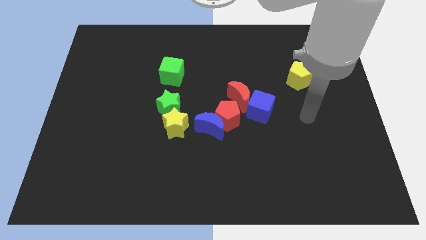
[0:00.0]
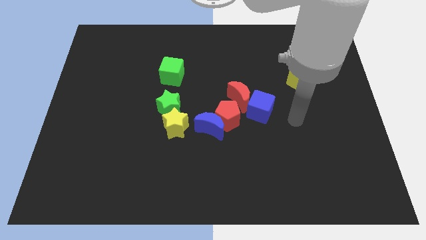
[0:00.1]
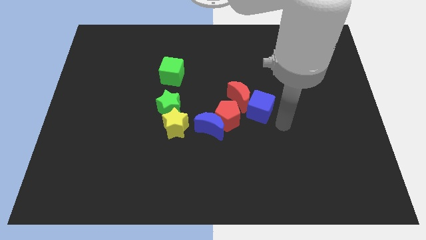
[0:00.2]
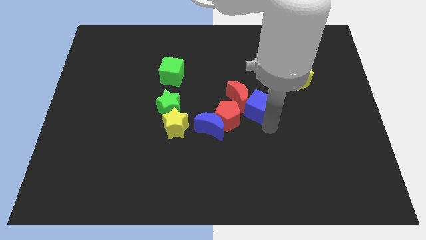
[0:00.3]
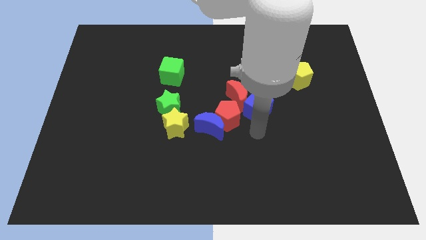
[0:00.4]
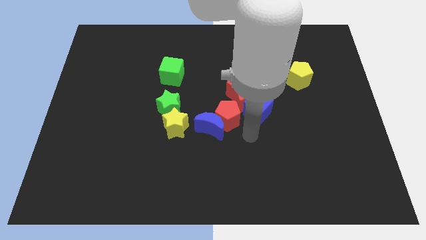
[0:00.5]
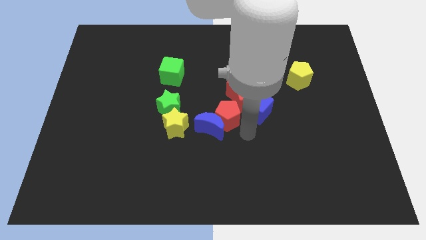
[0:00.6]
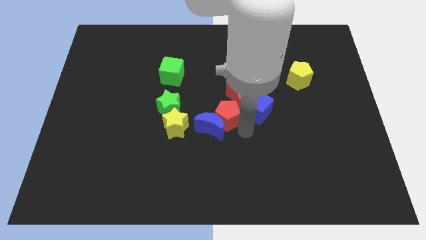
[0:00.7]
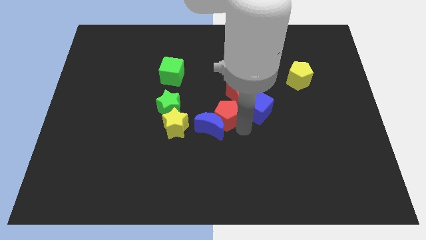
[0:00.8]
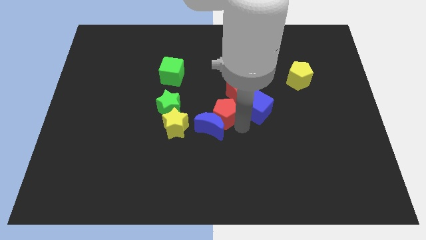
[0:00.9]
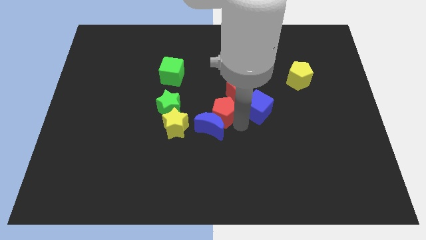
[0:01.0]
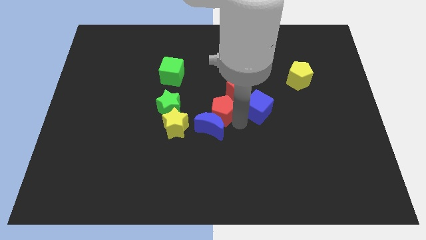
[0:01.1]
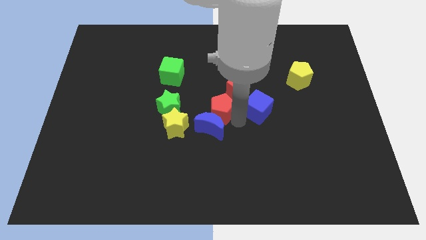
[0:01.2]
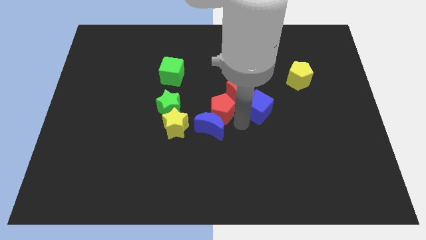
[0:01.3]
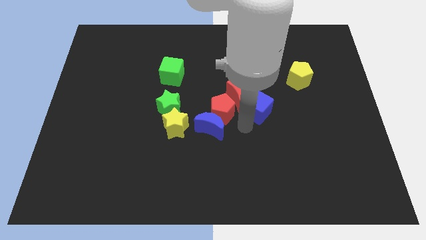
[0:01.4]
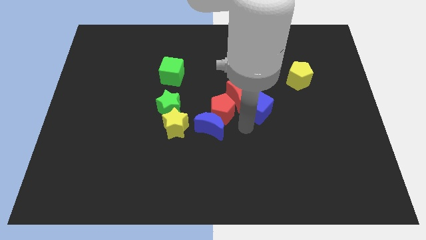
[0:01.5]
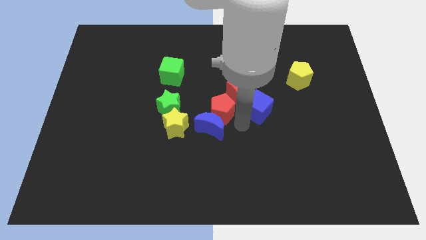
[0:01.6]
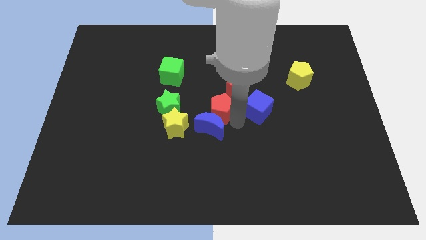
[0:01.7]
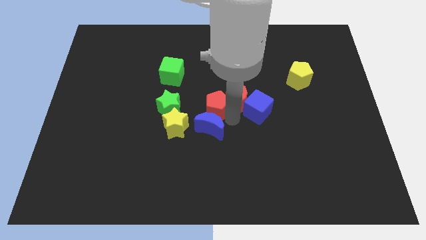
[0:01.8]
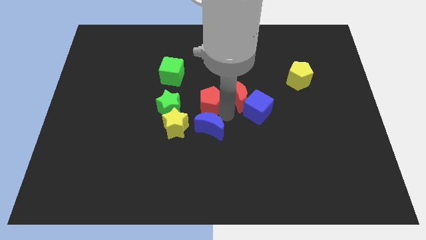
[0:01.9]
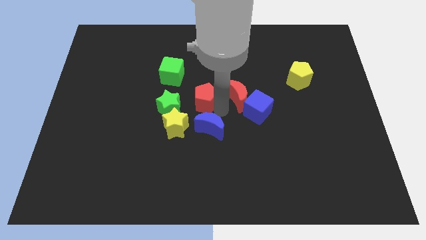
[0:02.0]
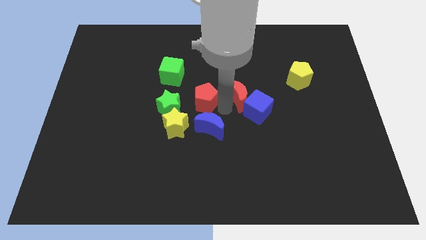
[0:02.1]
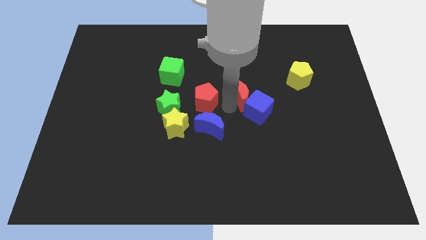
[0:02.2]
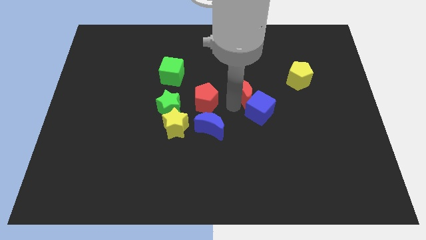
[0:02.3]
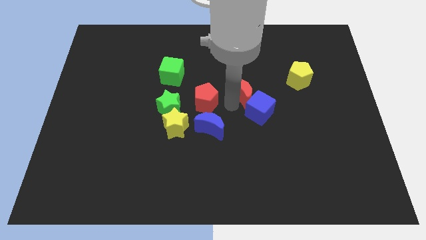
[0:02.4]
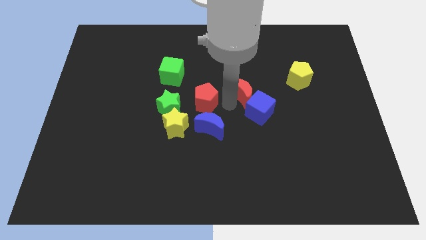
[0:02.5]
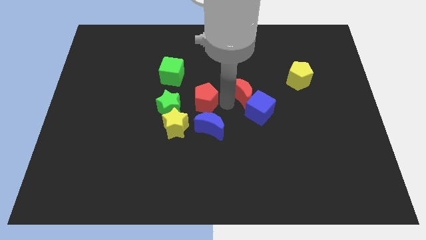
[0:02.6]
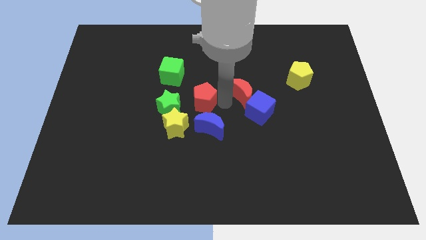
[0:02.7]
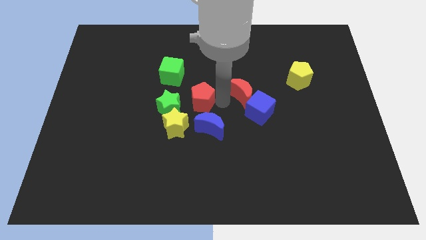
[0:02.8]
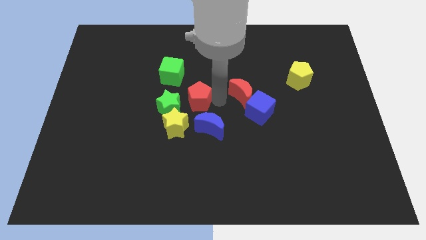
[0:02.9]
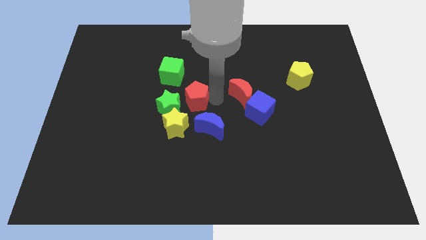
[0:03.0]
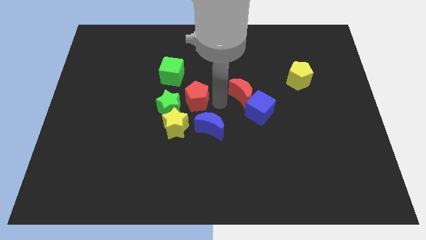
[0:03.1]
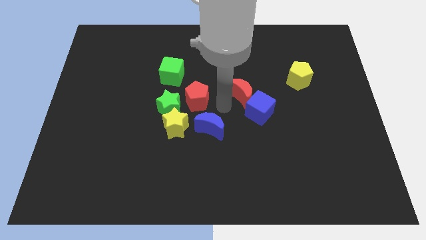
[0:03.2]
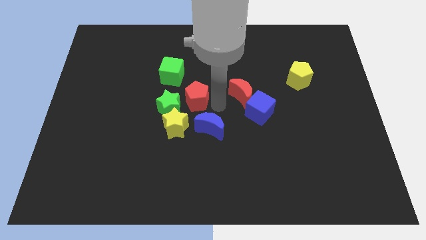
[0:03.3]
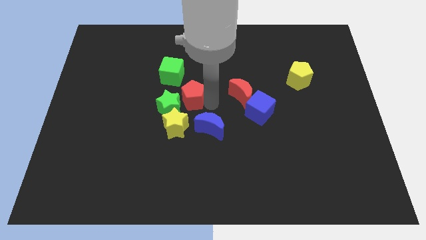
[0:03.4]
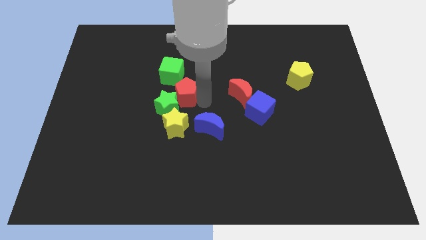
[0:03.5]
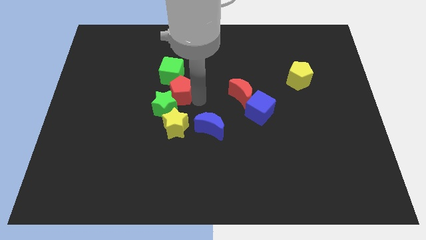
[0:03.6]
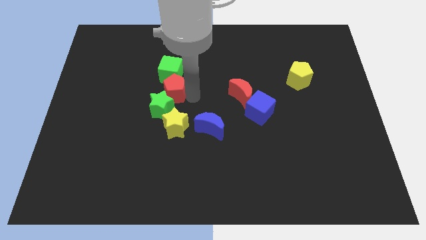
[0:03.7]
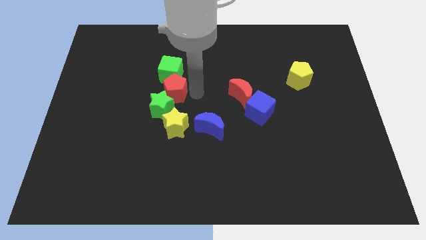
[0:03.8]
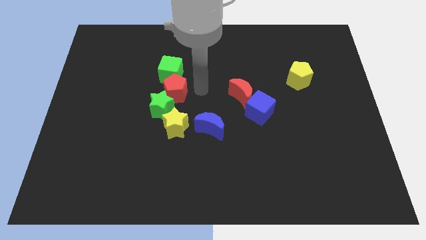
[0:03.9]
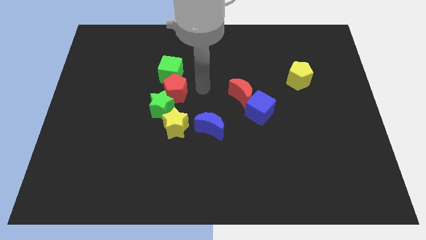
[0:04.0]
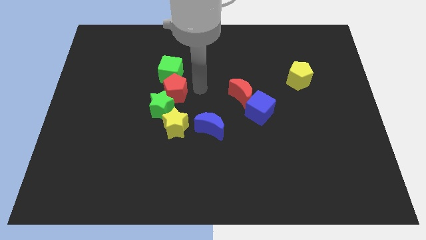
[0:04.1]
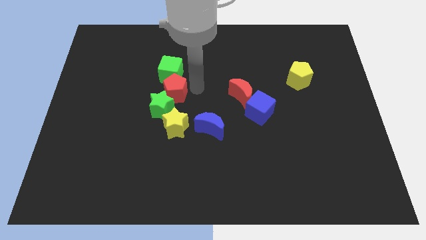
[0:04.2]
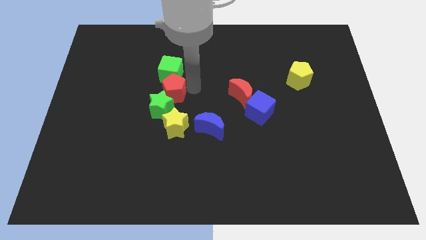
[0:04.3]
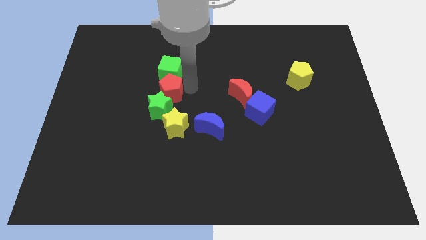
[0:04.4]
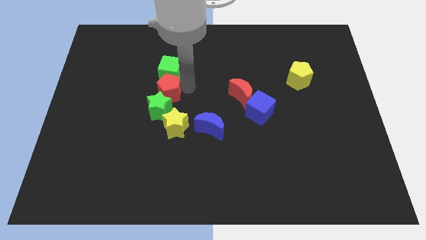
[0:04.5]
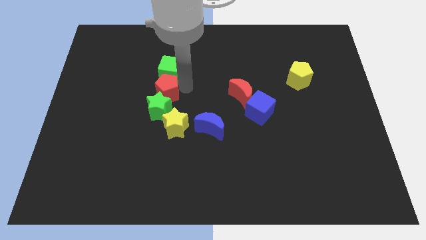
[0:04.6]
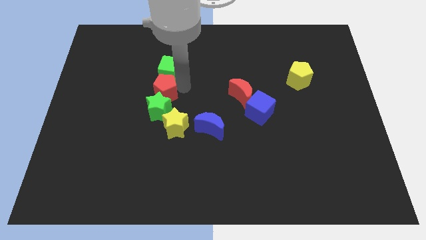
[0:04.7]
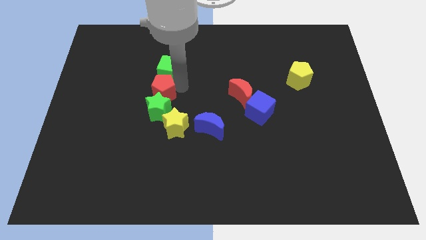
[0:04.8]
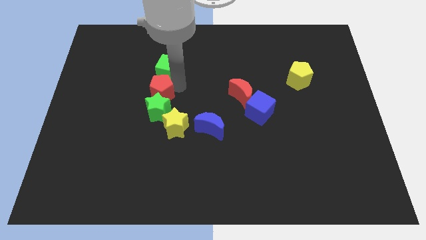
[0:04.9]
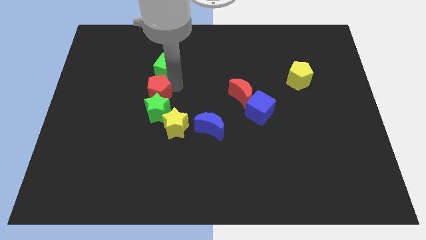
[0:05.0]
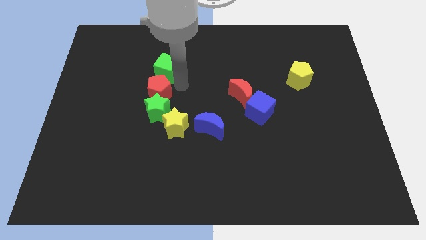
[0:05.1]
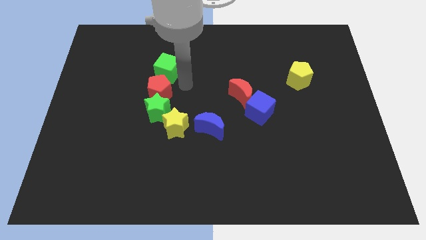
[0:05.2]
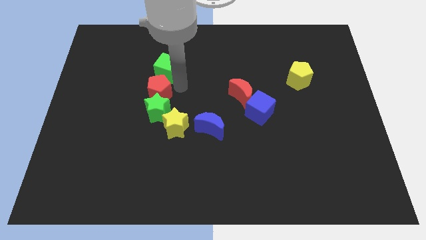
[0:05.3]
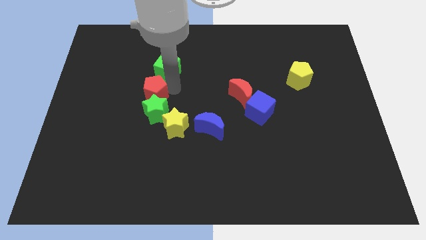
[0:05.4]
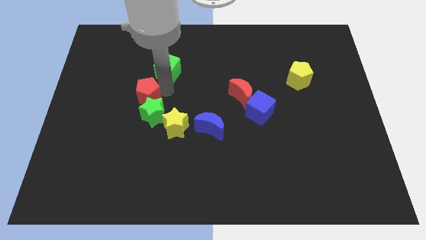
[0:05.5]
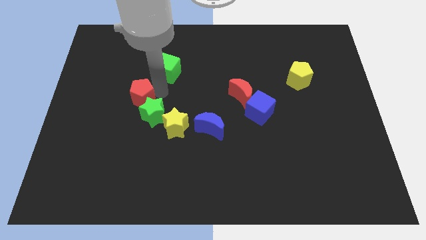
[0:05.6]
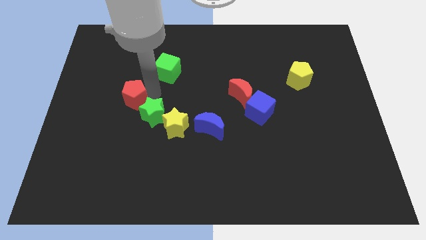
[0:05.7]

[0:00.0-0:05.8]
move the red pentagon left

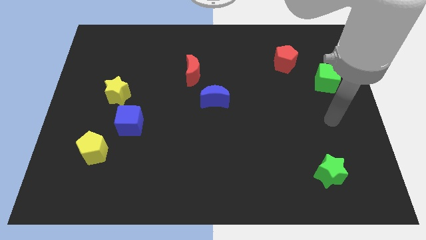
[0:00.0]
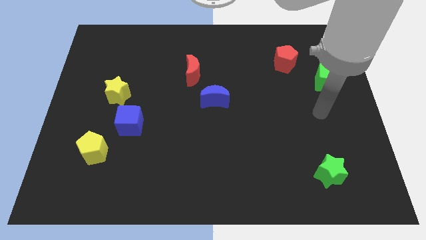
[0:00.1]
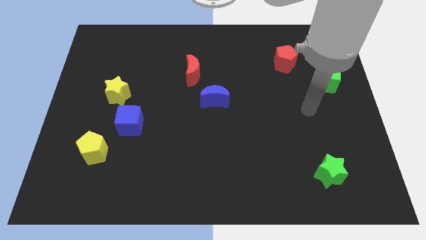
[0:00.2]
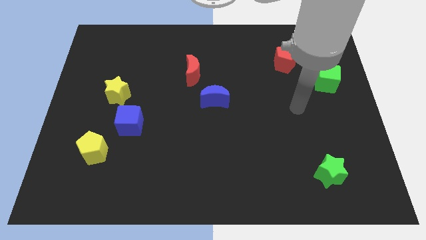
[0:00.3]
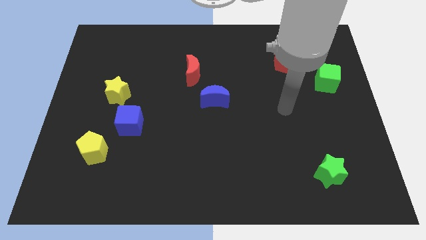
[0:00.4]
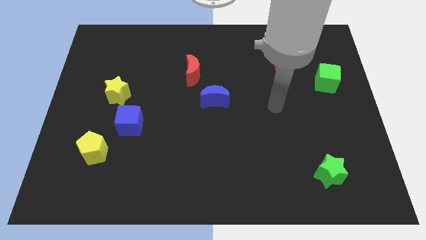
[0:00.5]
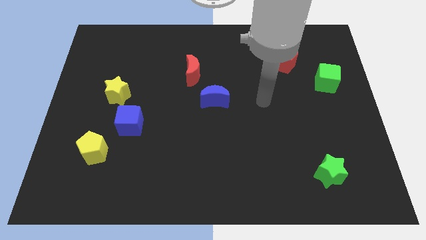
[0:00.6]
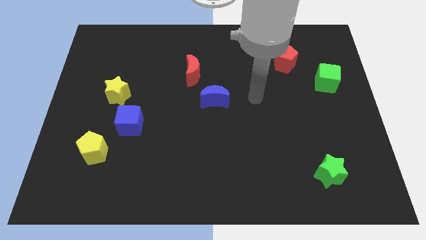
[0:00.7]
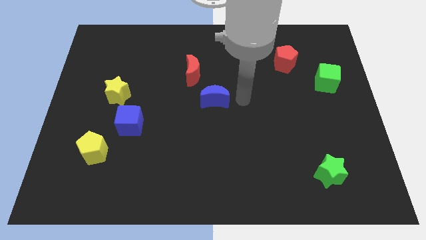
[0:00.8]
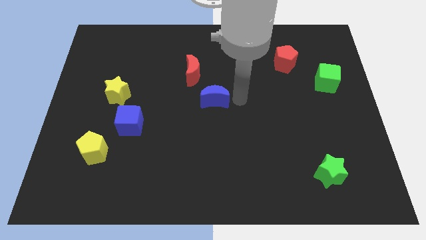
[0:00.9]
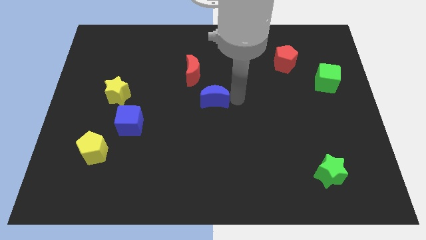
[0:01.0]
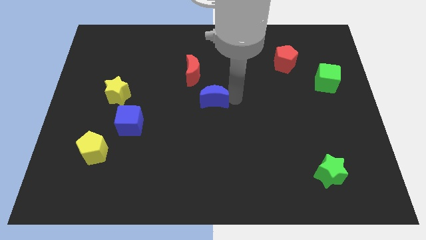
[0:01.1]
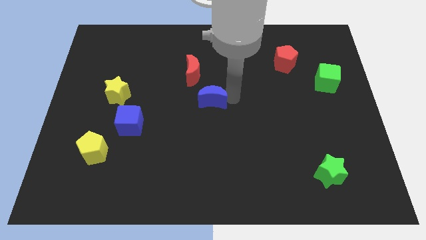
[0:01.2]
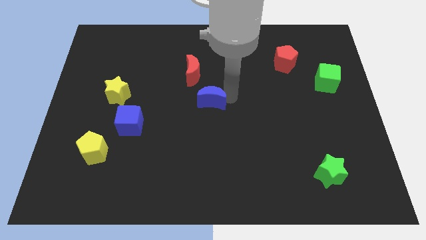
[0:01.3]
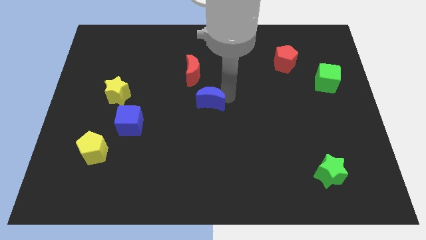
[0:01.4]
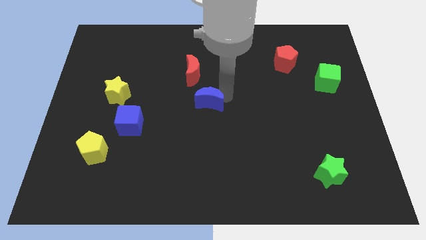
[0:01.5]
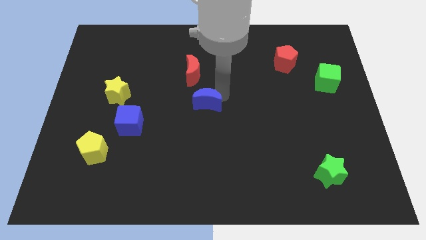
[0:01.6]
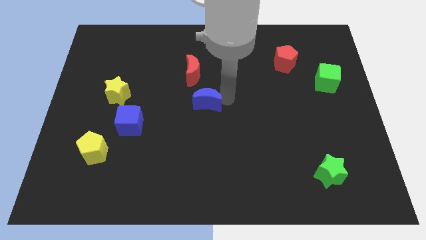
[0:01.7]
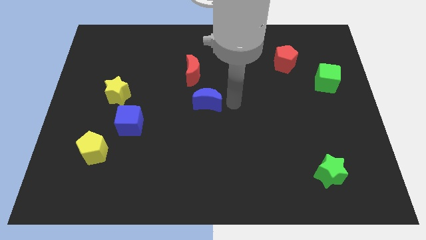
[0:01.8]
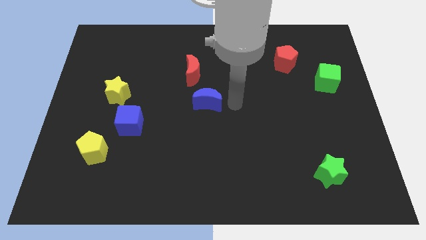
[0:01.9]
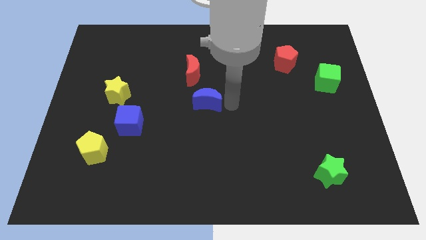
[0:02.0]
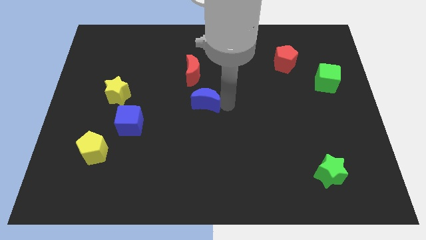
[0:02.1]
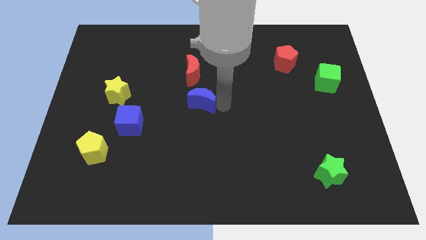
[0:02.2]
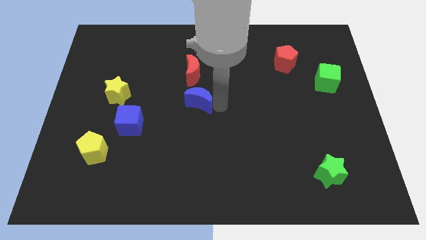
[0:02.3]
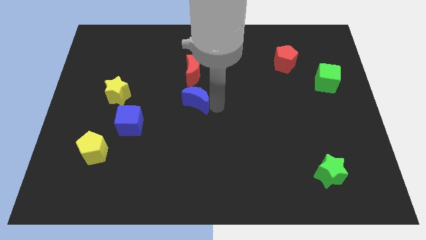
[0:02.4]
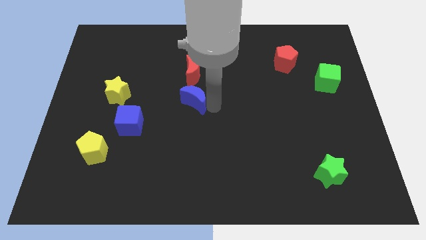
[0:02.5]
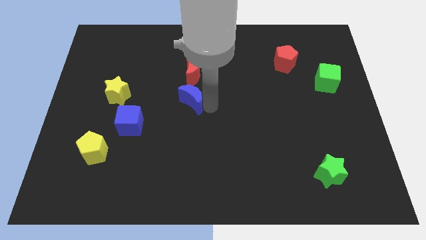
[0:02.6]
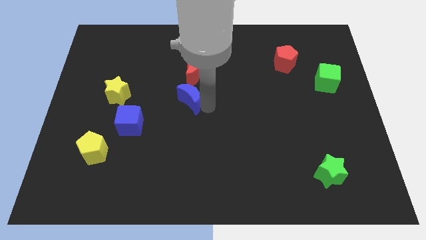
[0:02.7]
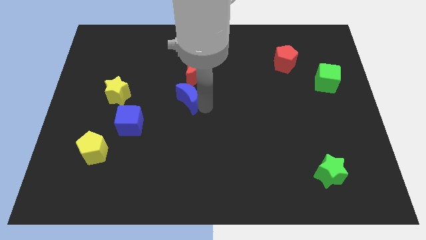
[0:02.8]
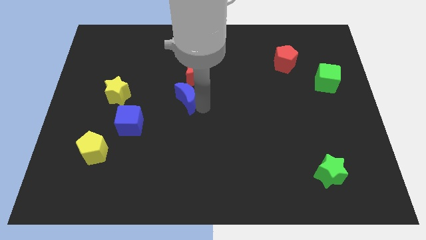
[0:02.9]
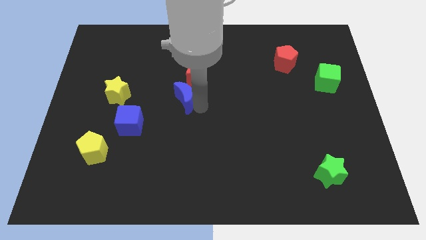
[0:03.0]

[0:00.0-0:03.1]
slightly push the blue moon left
